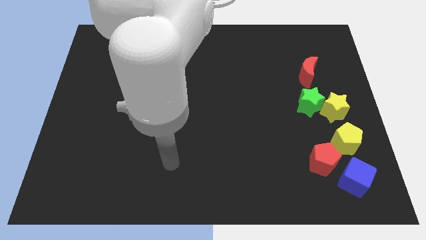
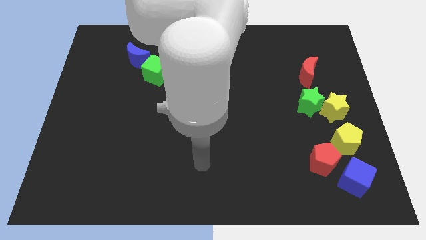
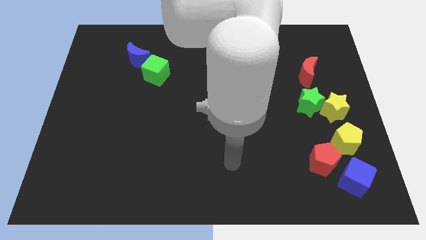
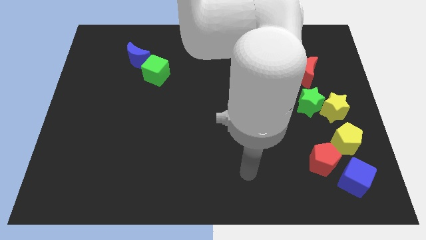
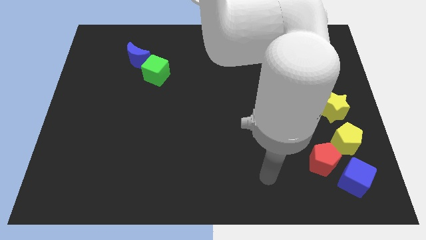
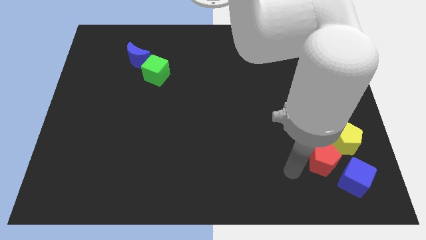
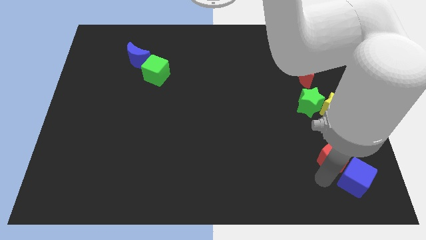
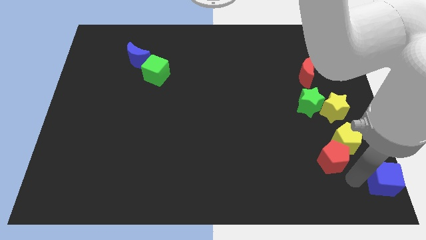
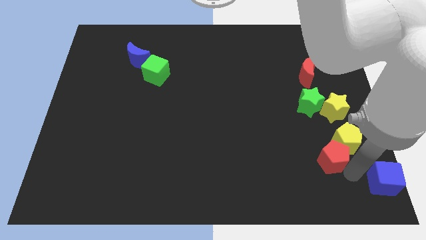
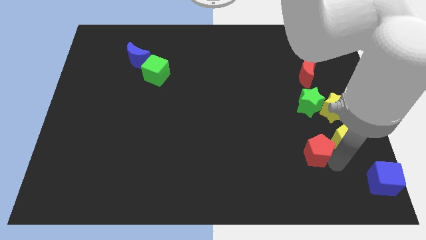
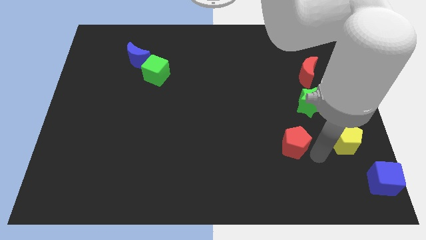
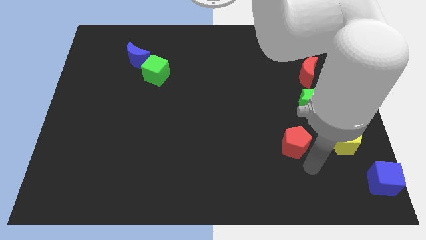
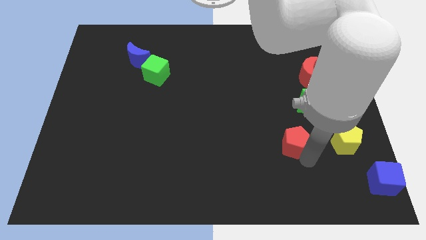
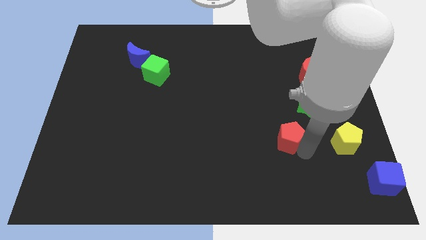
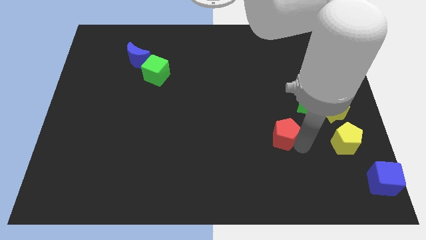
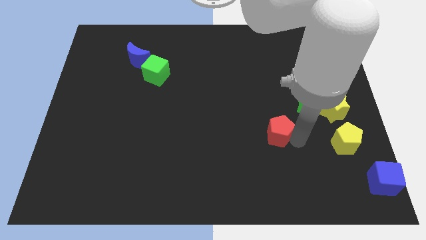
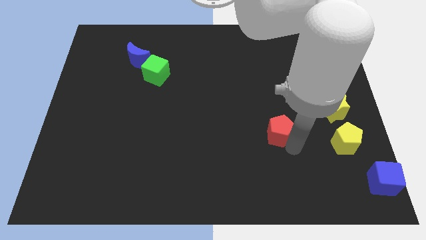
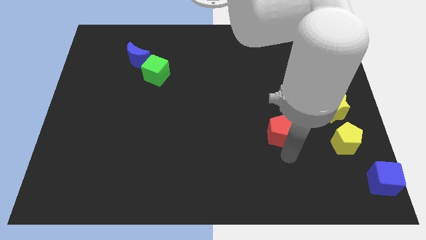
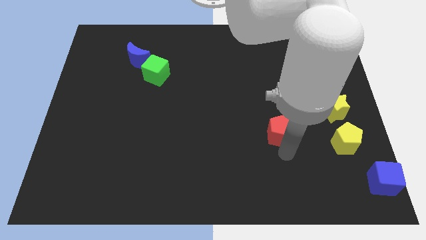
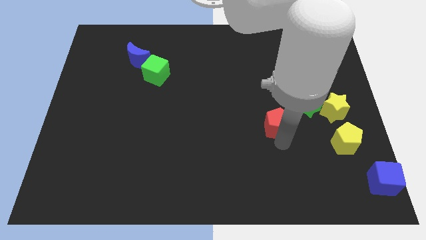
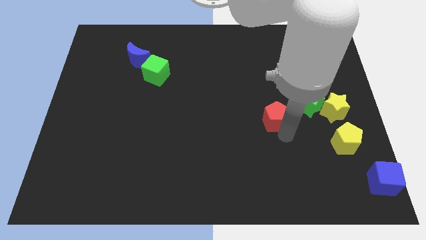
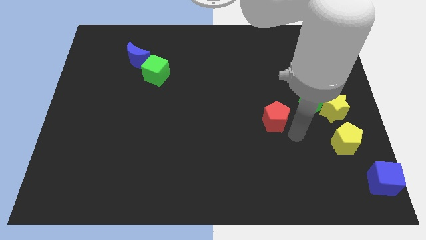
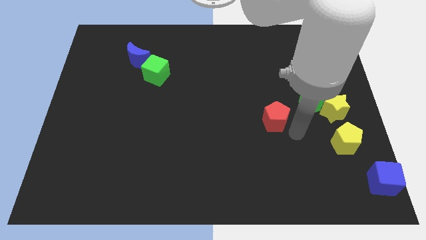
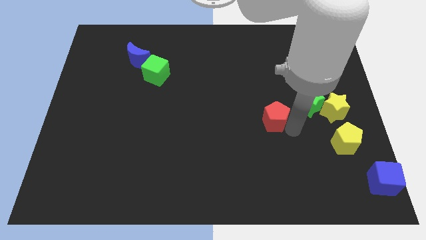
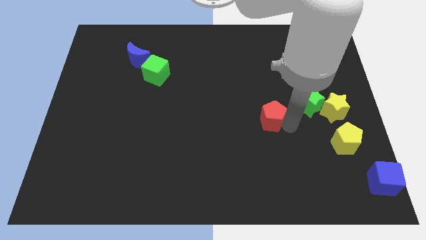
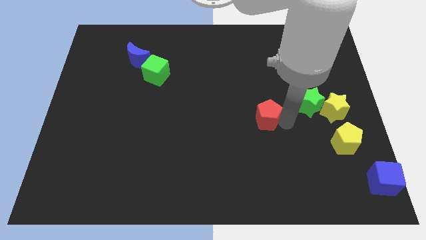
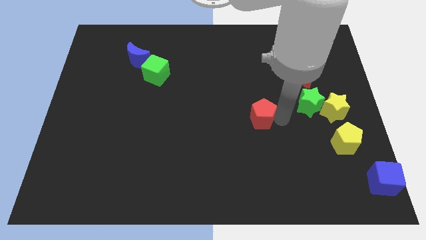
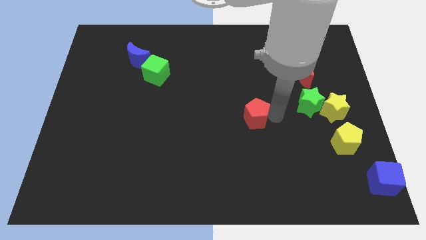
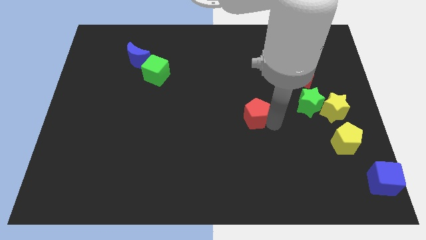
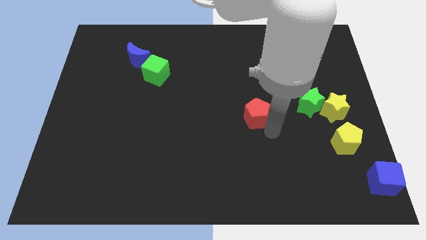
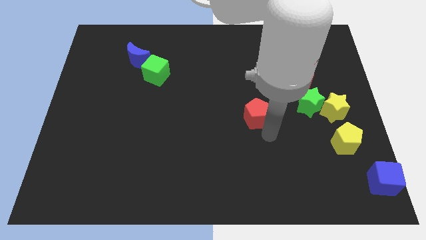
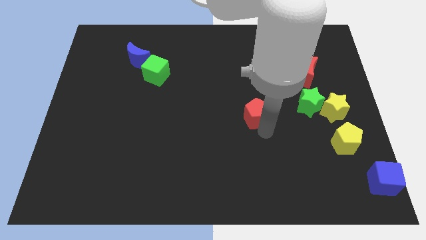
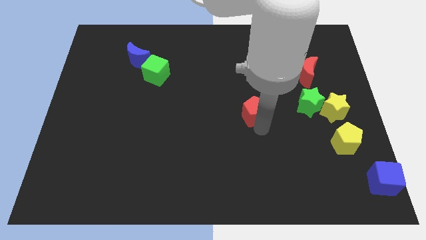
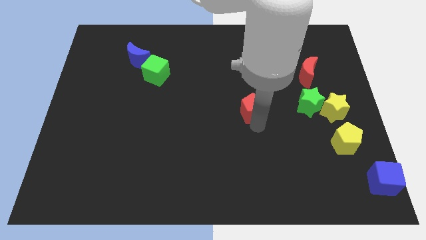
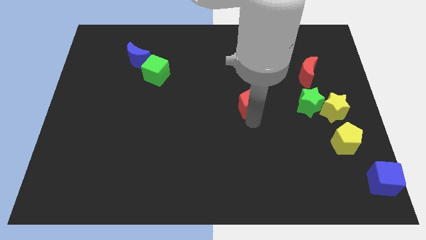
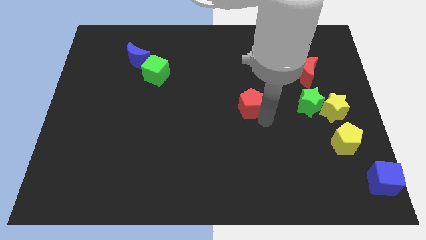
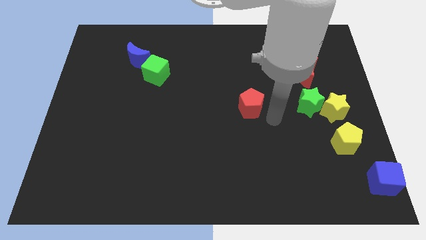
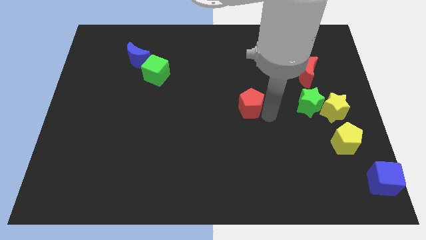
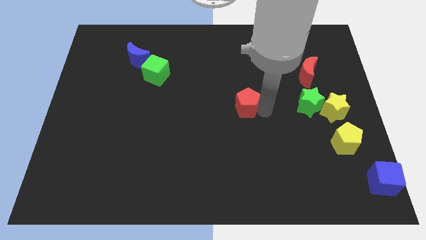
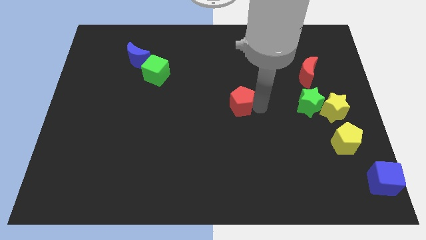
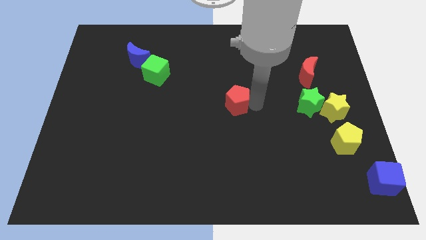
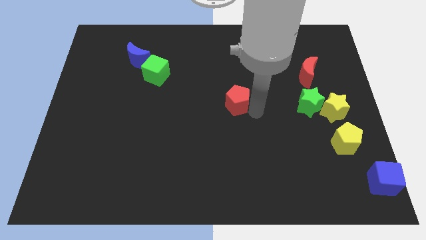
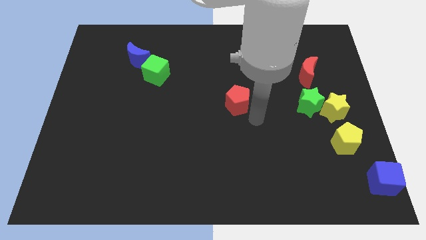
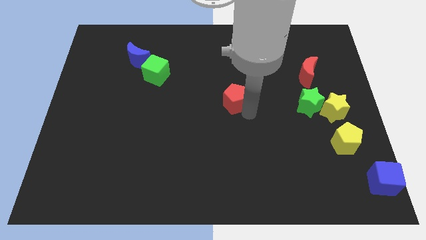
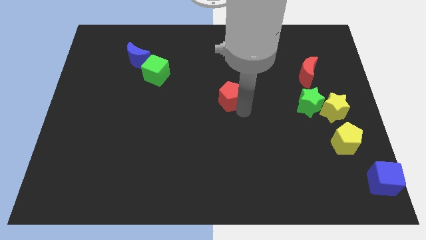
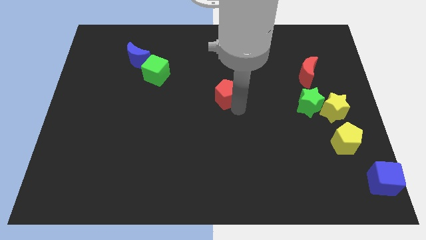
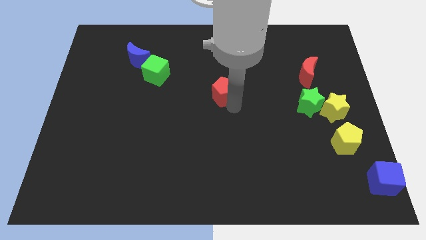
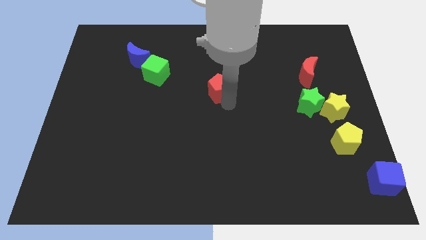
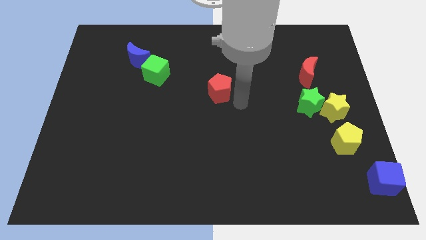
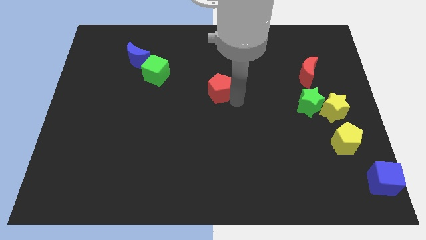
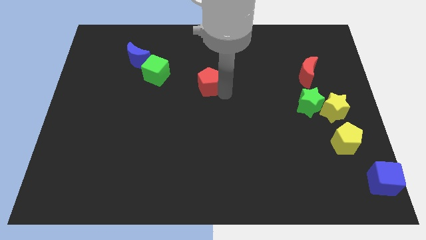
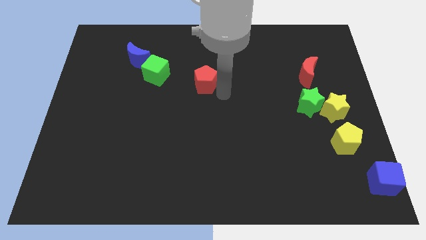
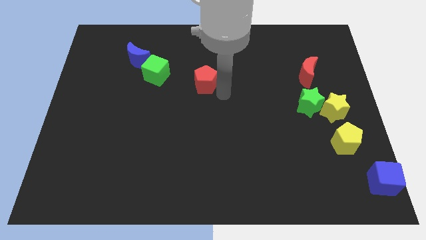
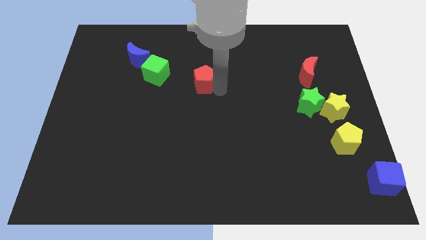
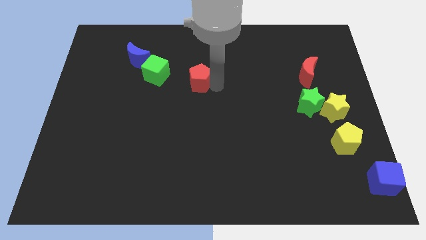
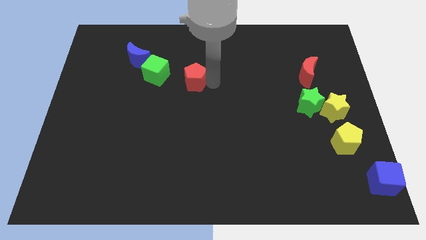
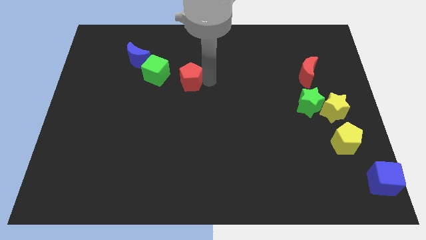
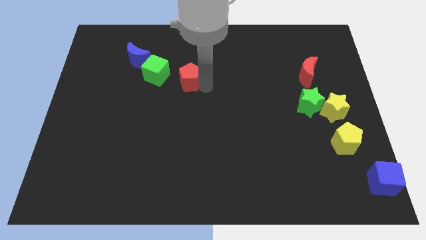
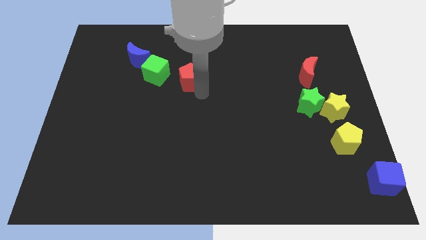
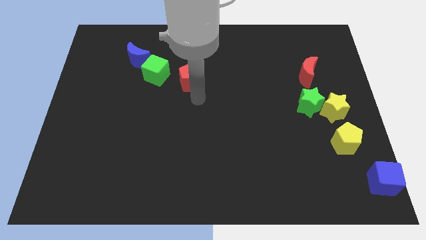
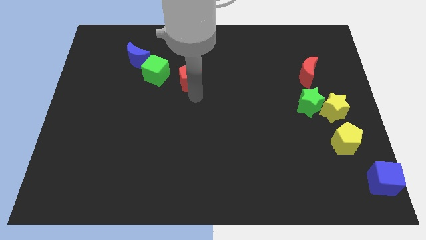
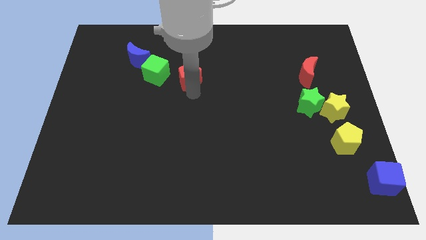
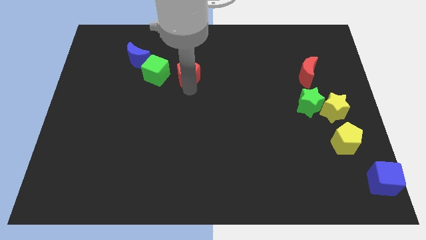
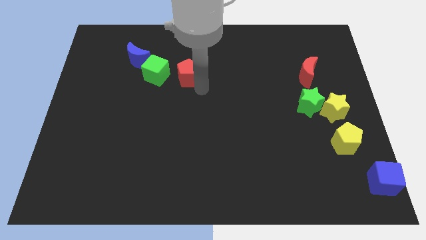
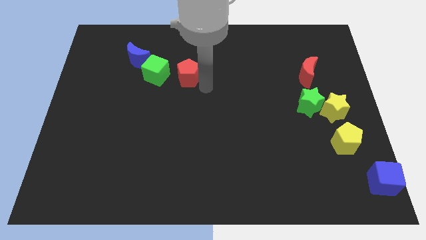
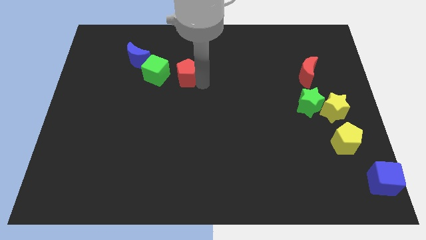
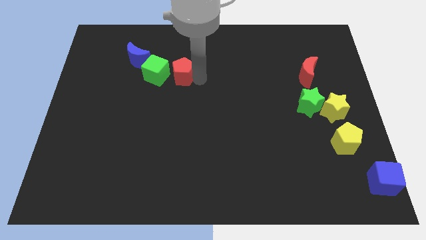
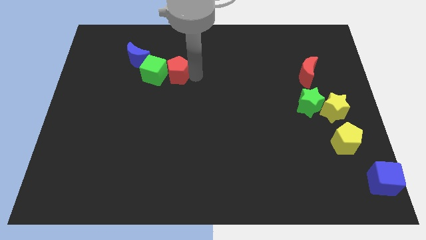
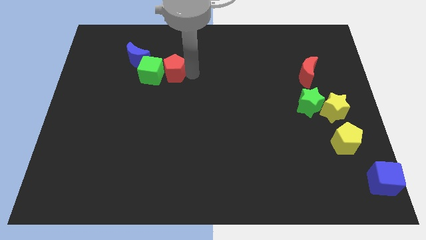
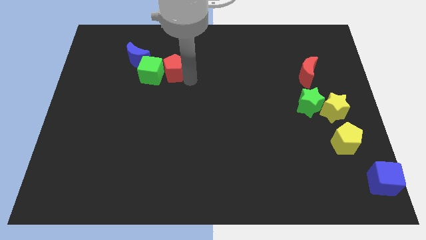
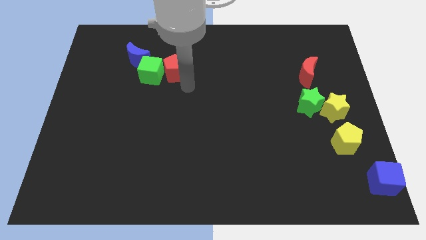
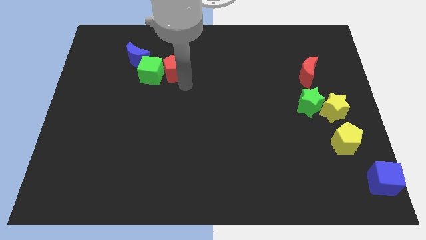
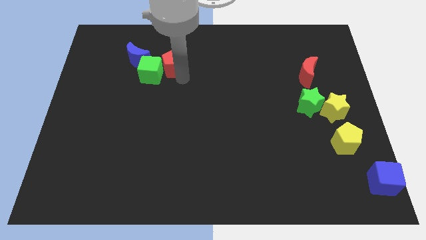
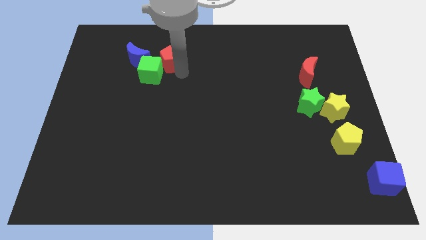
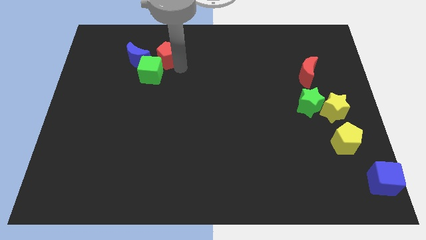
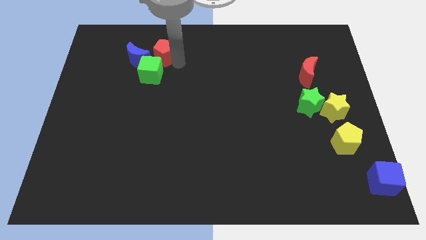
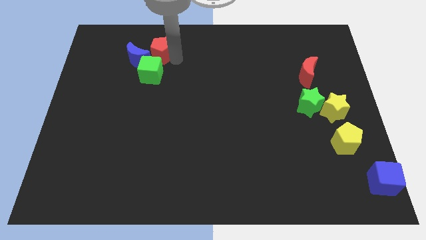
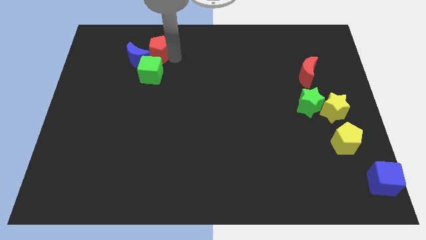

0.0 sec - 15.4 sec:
move the red pentagon close to the blue moon
